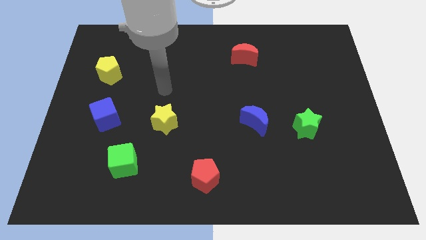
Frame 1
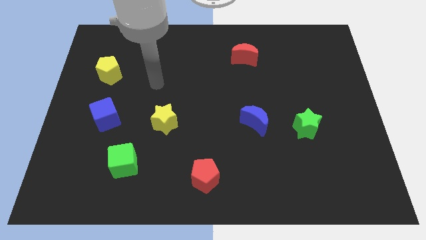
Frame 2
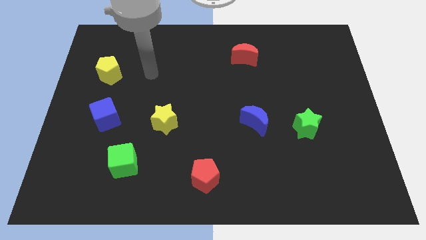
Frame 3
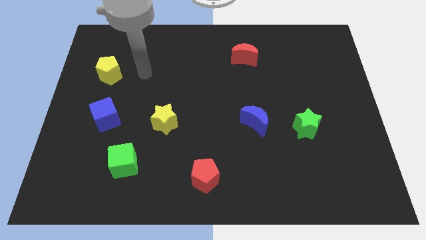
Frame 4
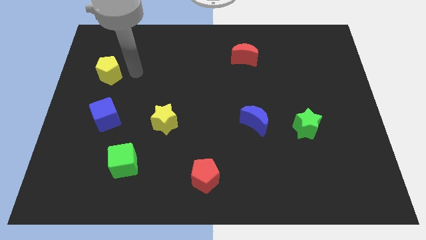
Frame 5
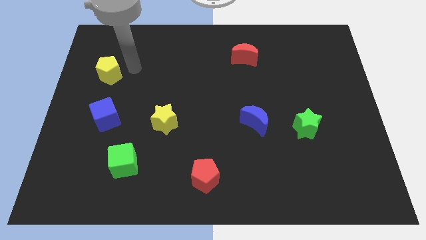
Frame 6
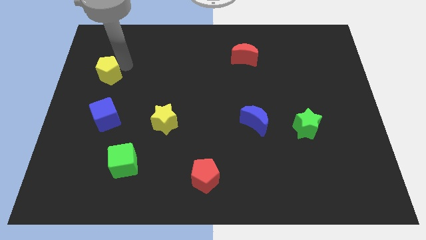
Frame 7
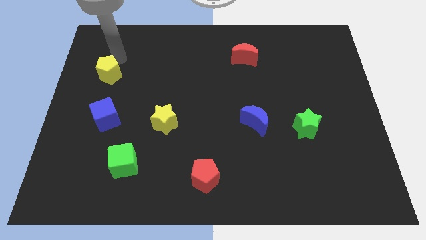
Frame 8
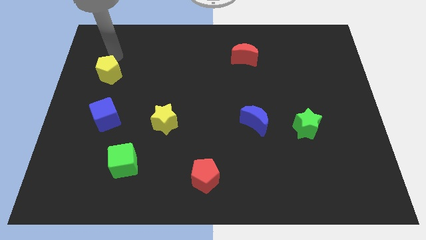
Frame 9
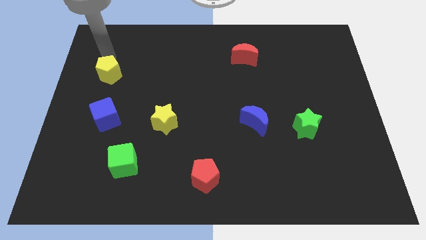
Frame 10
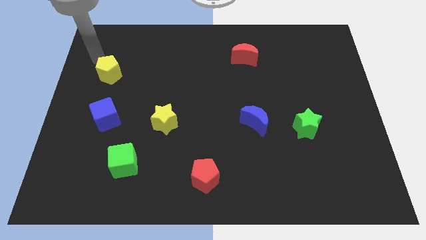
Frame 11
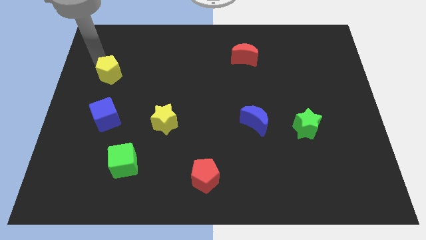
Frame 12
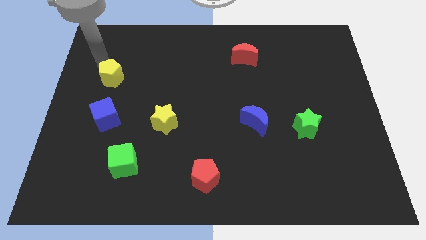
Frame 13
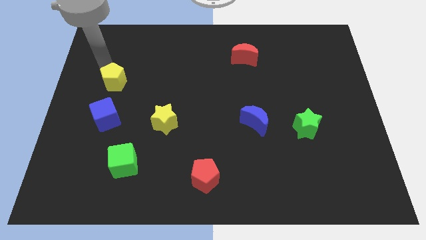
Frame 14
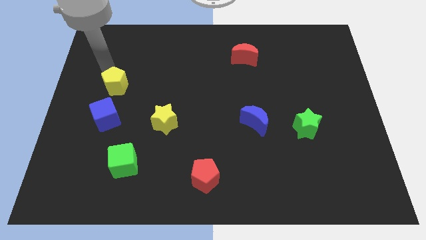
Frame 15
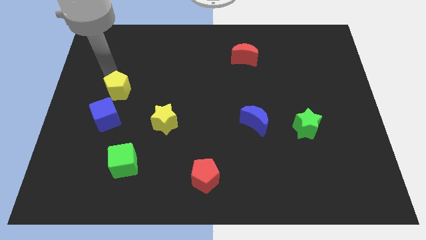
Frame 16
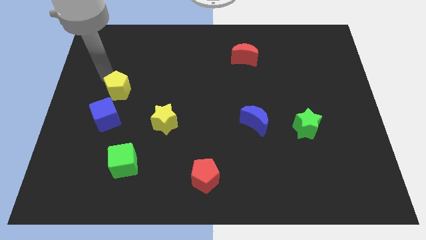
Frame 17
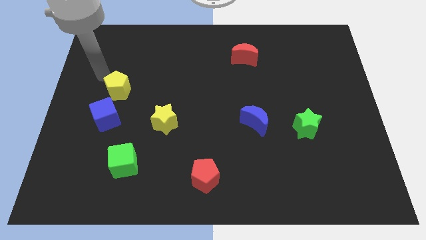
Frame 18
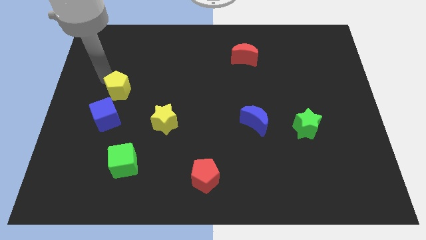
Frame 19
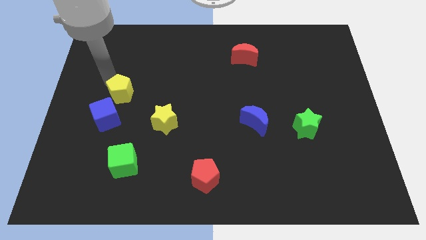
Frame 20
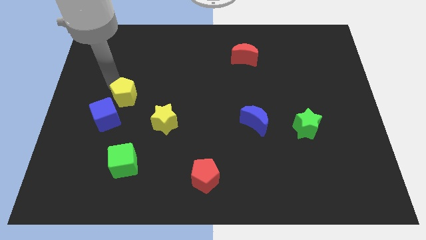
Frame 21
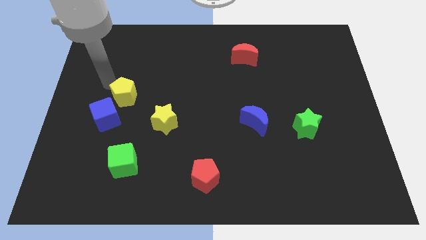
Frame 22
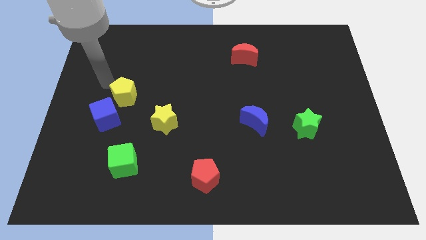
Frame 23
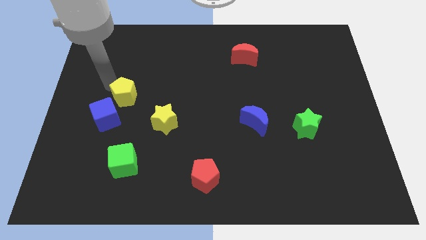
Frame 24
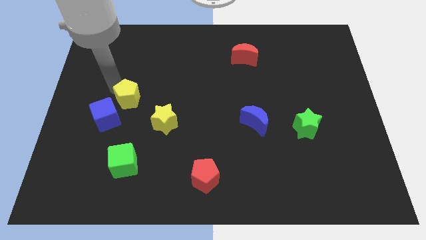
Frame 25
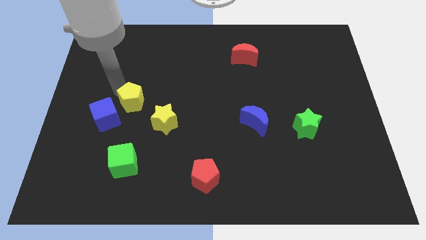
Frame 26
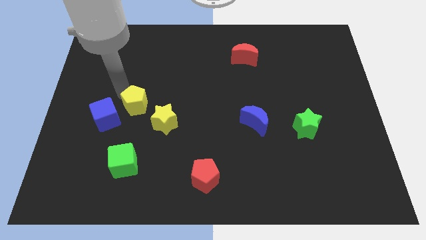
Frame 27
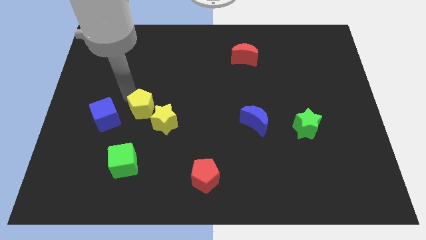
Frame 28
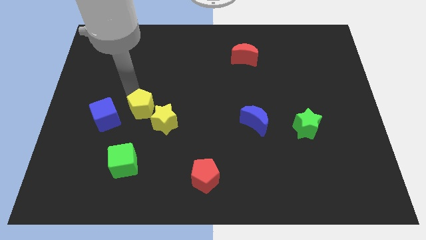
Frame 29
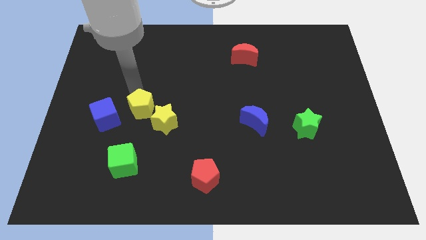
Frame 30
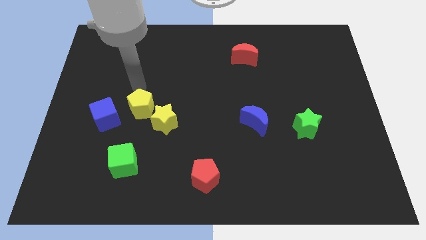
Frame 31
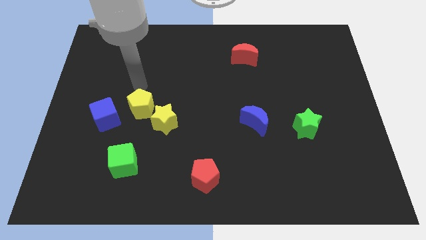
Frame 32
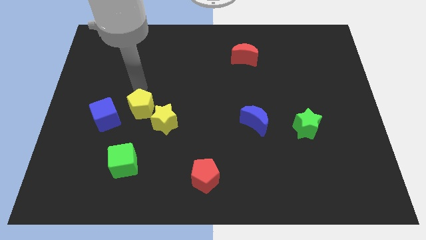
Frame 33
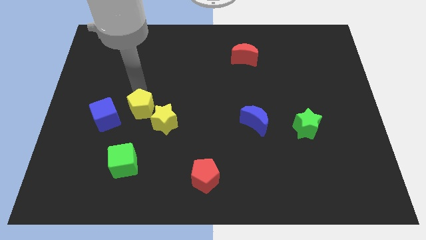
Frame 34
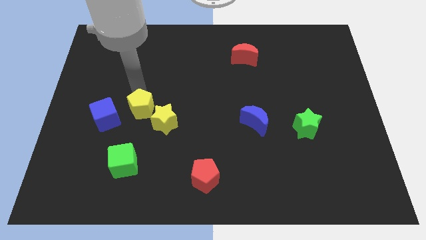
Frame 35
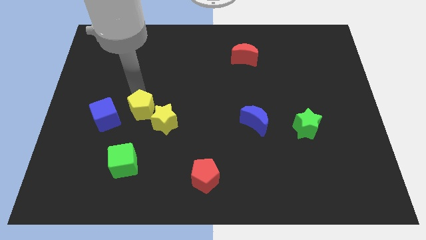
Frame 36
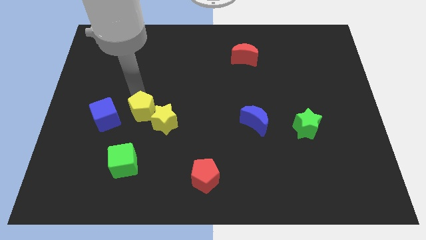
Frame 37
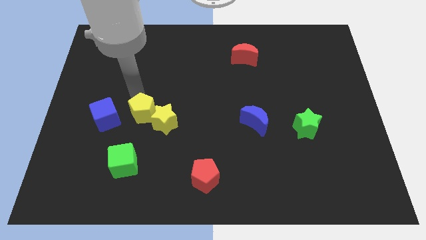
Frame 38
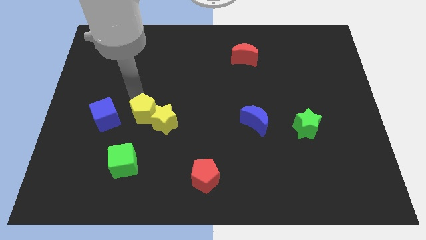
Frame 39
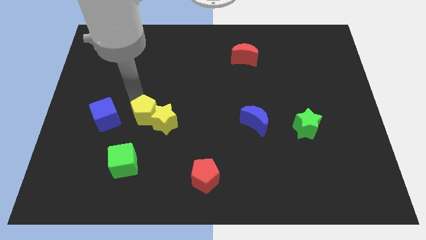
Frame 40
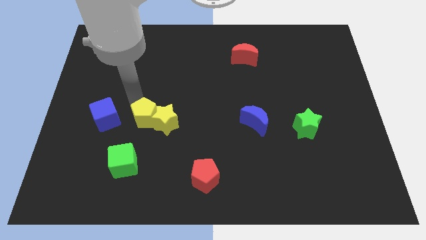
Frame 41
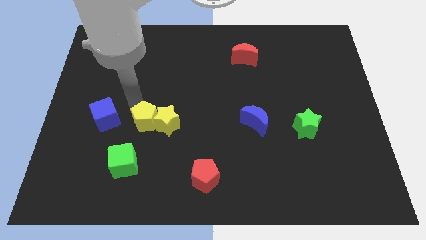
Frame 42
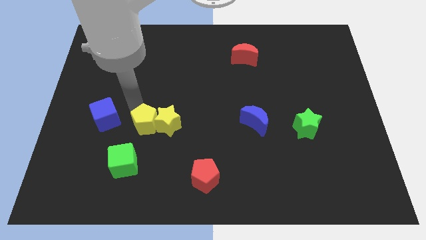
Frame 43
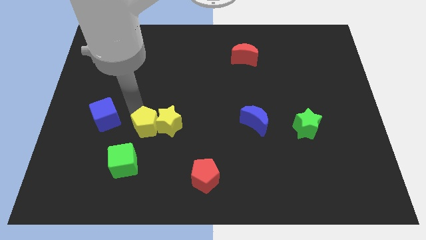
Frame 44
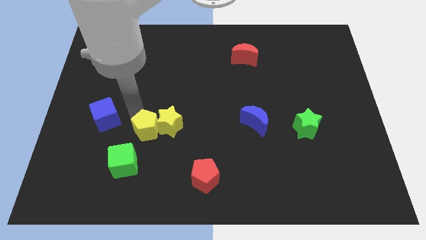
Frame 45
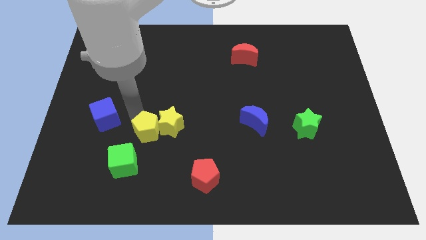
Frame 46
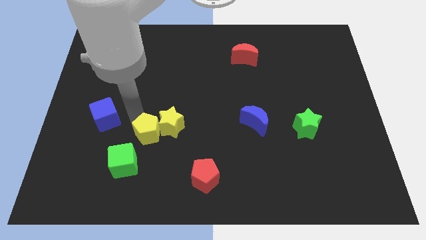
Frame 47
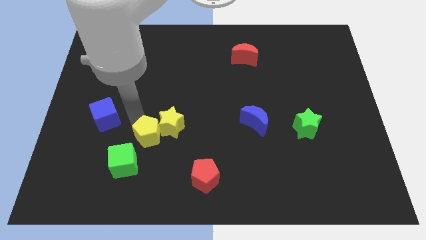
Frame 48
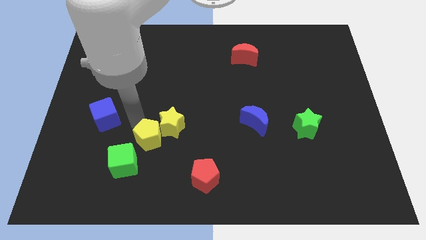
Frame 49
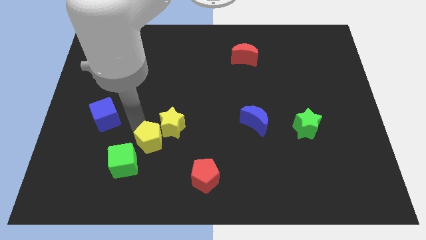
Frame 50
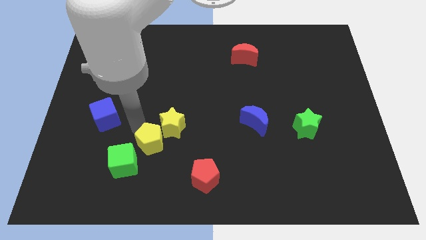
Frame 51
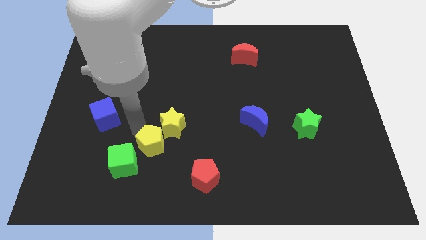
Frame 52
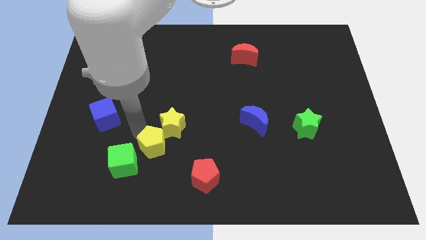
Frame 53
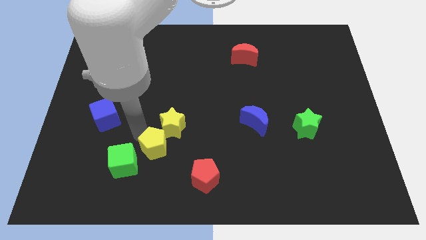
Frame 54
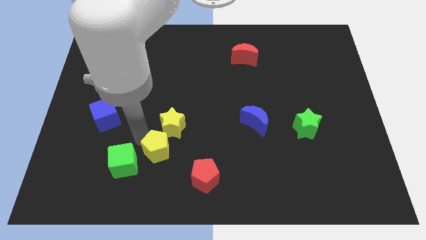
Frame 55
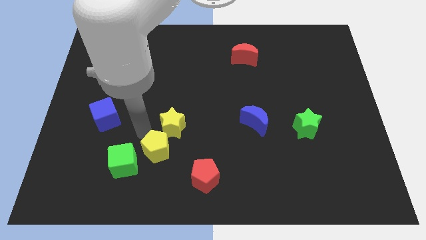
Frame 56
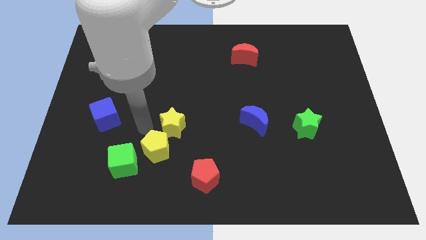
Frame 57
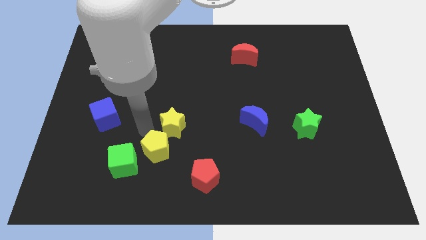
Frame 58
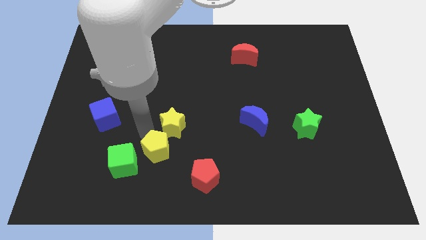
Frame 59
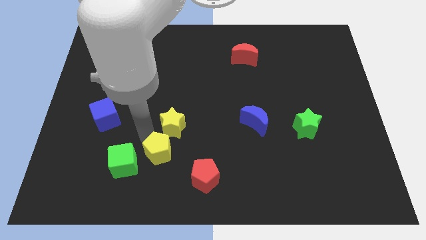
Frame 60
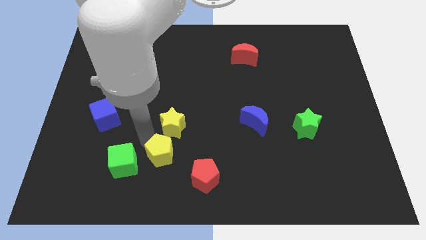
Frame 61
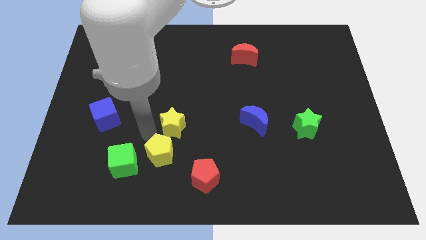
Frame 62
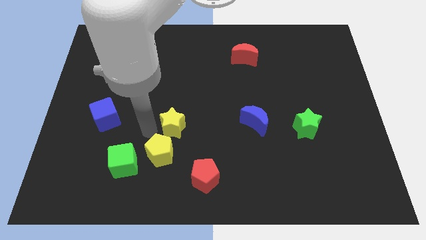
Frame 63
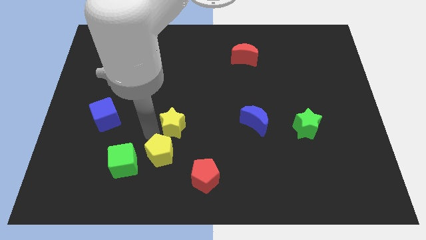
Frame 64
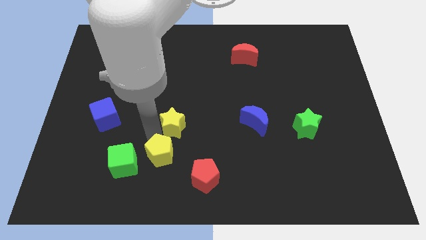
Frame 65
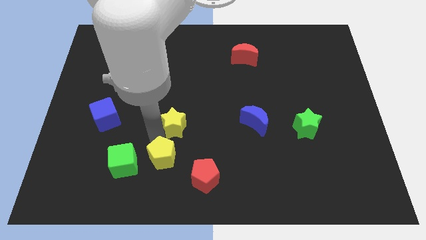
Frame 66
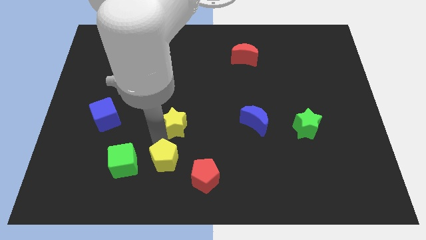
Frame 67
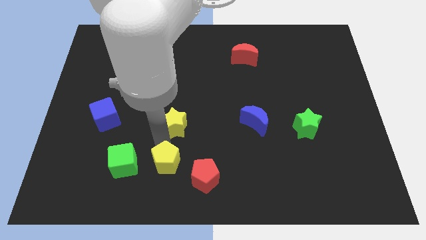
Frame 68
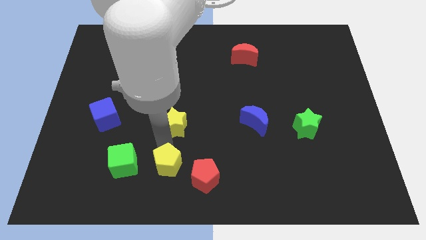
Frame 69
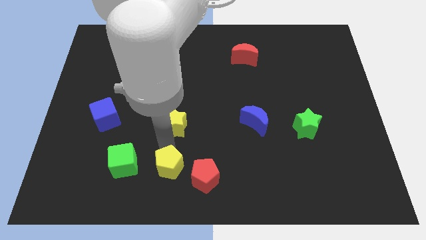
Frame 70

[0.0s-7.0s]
push the yellow pentagon to the bottom side

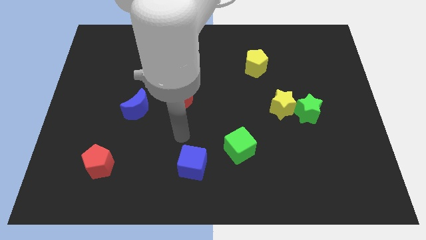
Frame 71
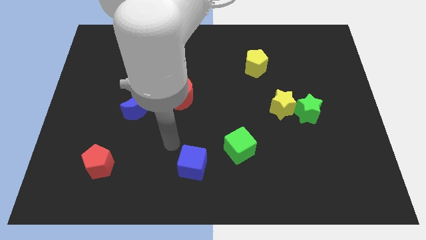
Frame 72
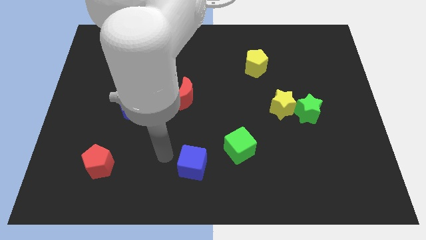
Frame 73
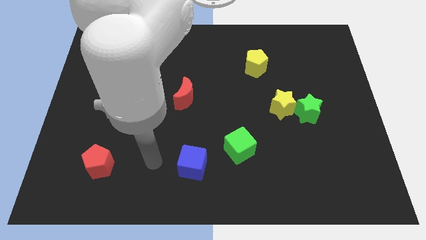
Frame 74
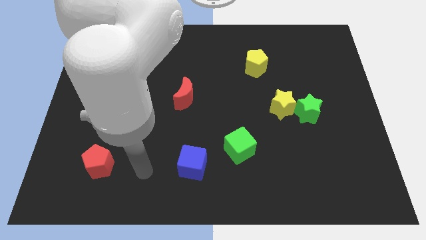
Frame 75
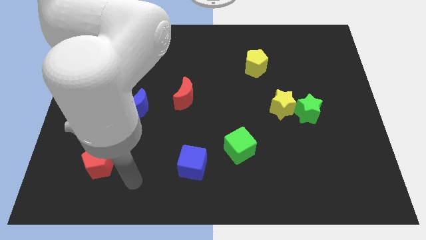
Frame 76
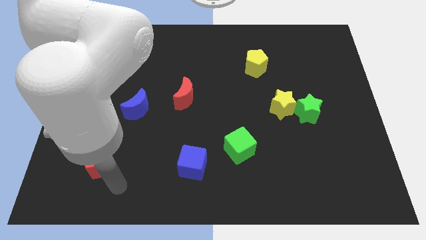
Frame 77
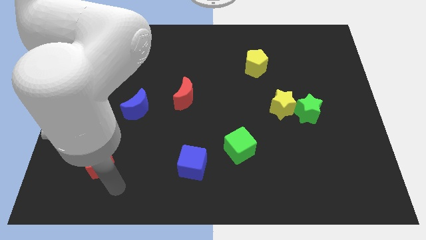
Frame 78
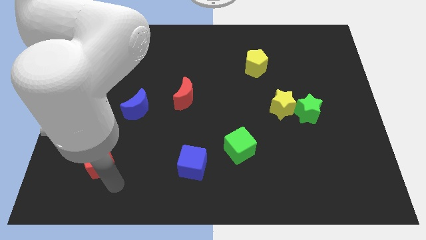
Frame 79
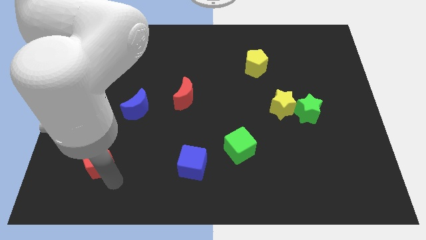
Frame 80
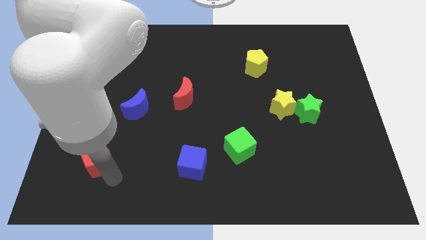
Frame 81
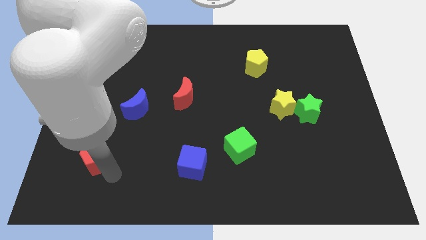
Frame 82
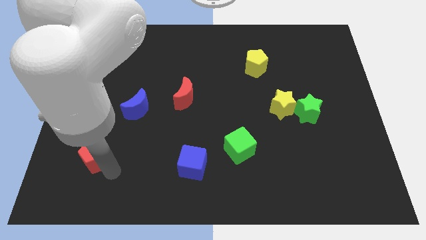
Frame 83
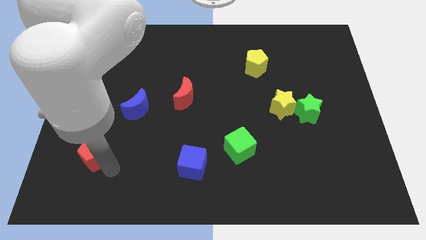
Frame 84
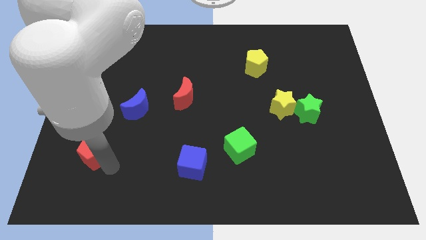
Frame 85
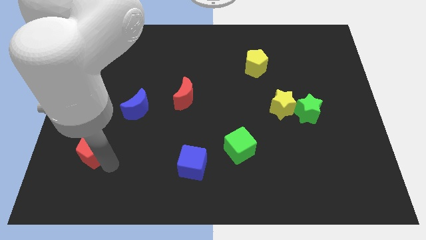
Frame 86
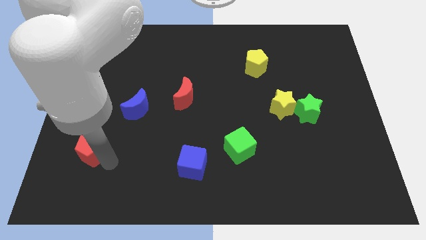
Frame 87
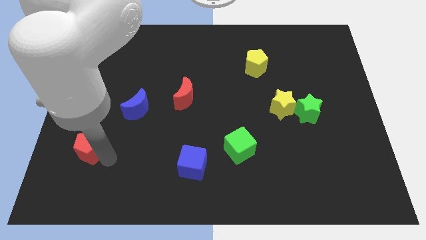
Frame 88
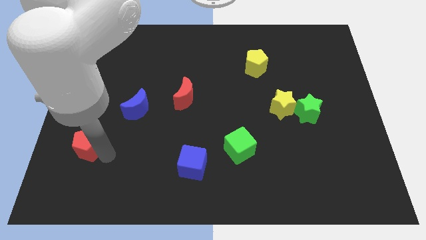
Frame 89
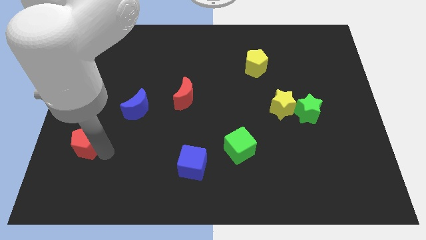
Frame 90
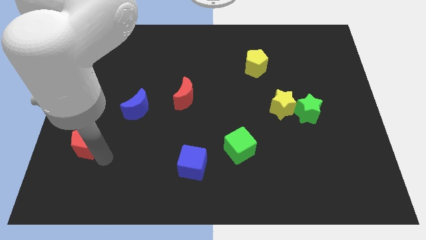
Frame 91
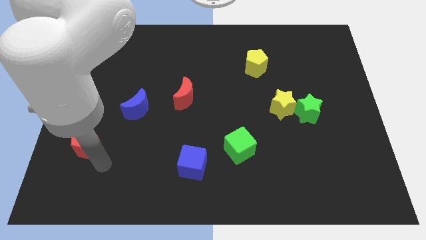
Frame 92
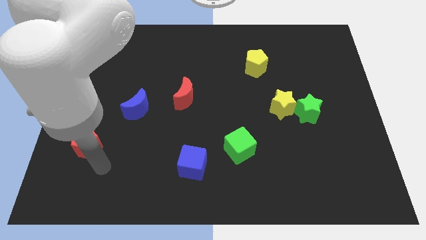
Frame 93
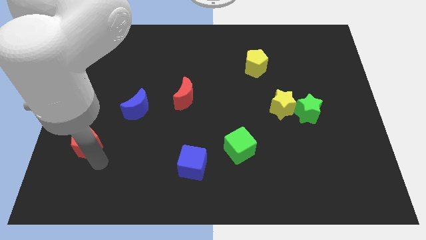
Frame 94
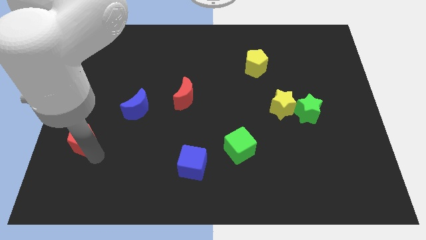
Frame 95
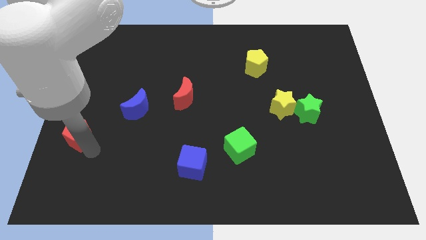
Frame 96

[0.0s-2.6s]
move the red pentagon to the center left
